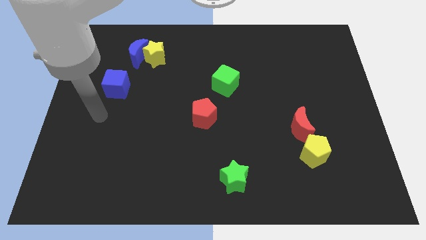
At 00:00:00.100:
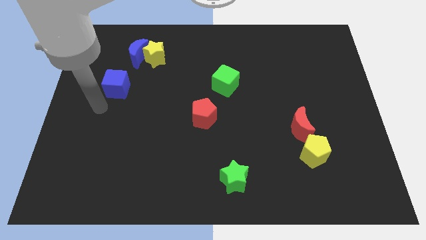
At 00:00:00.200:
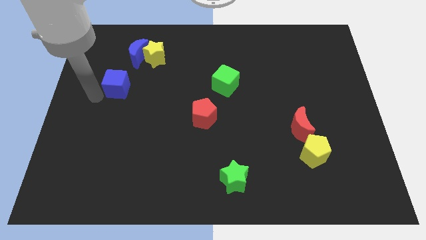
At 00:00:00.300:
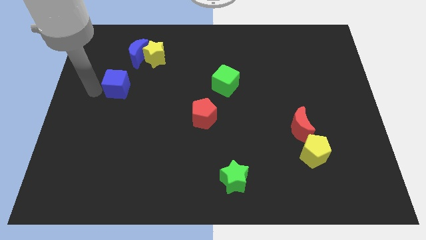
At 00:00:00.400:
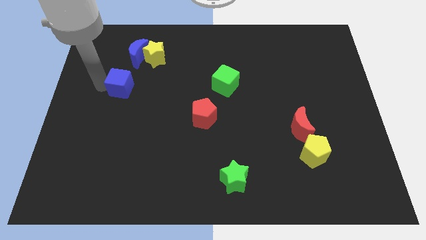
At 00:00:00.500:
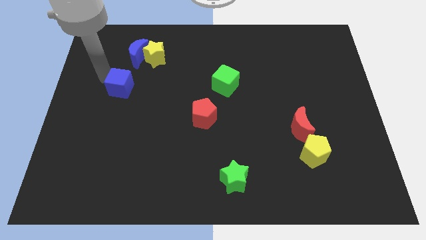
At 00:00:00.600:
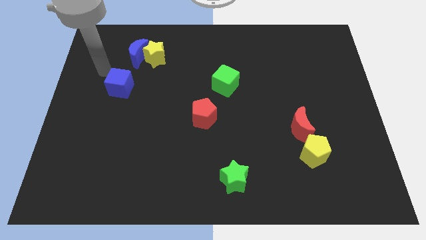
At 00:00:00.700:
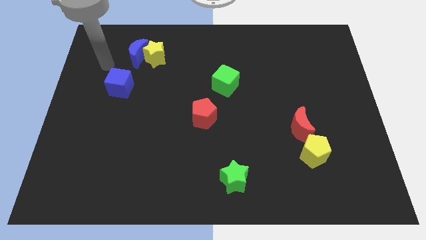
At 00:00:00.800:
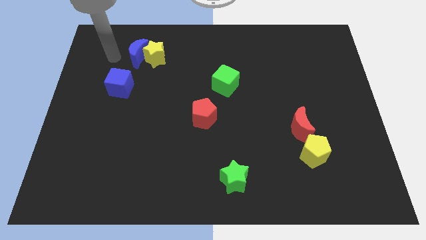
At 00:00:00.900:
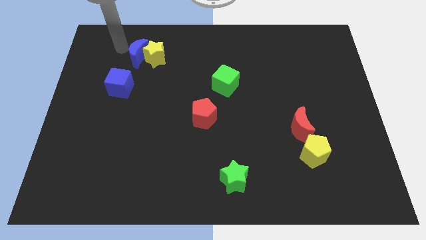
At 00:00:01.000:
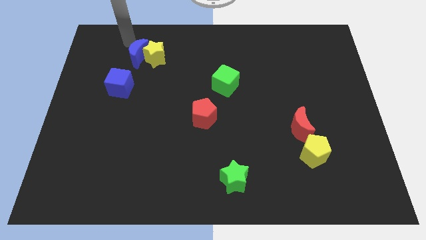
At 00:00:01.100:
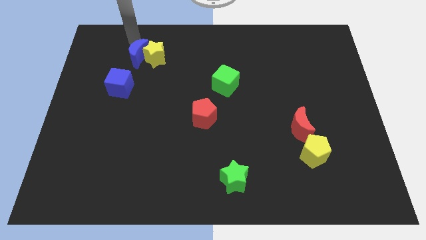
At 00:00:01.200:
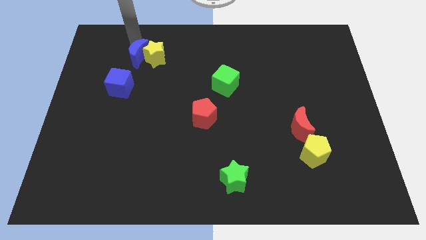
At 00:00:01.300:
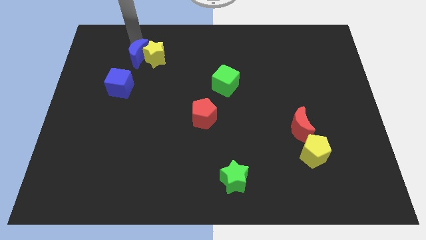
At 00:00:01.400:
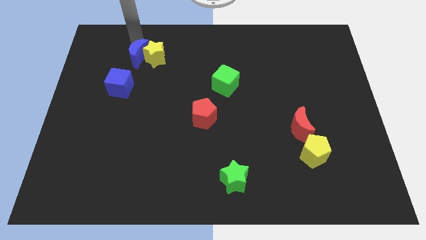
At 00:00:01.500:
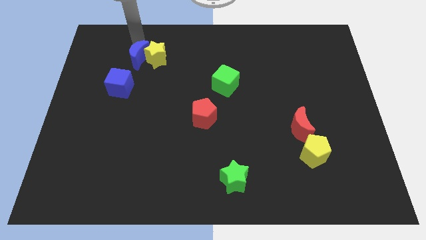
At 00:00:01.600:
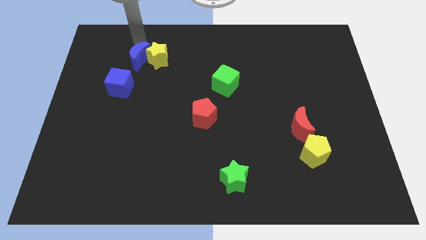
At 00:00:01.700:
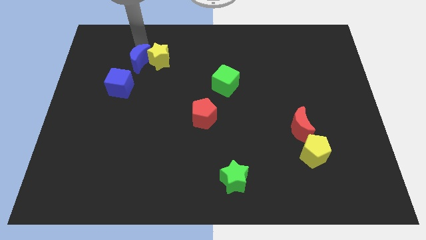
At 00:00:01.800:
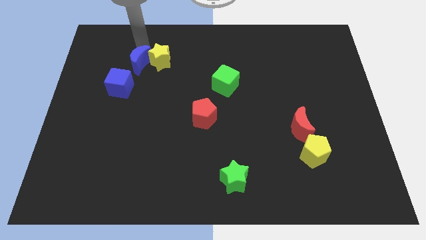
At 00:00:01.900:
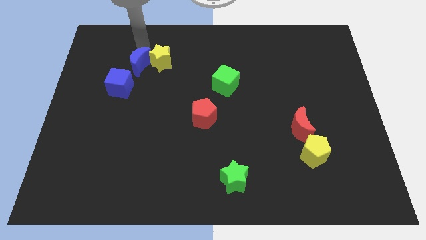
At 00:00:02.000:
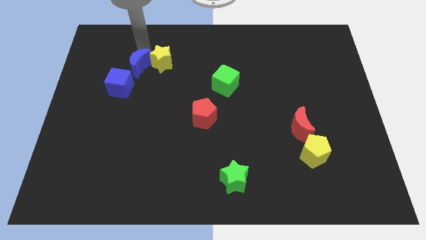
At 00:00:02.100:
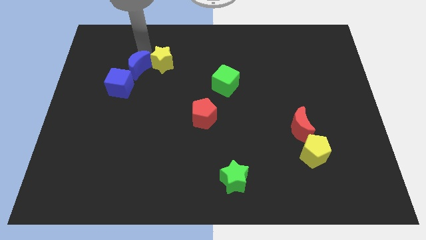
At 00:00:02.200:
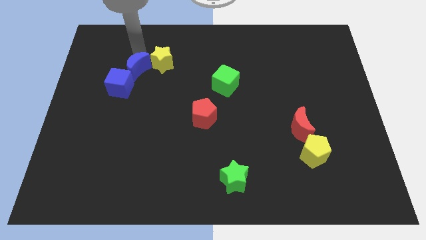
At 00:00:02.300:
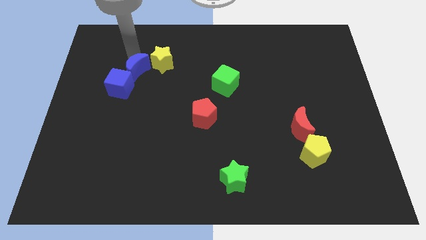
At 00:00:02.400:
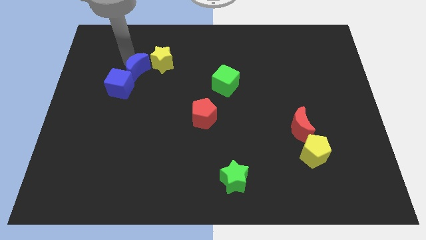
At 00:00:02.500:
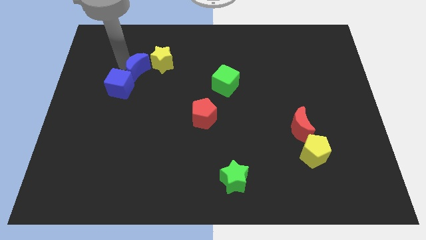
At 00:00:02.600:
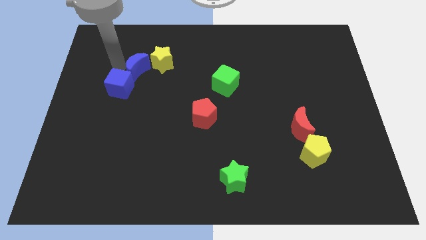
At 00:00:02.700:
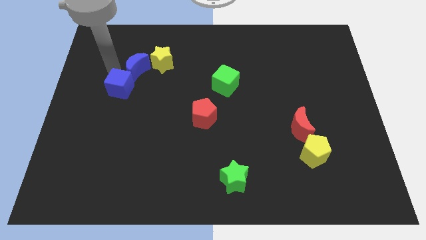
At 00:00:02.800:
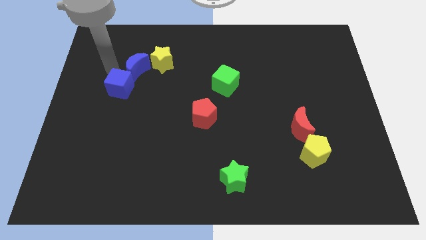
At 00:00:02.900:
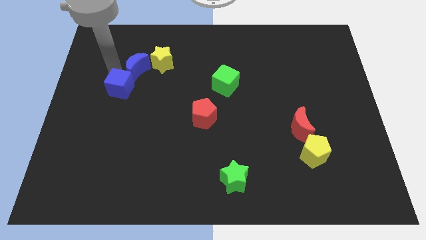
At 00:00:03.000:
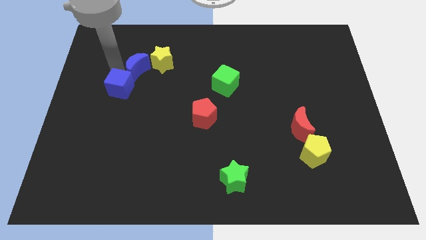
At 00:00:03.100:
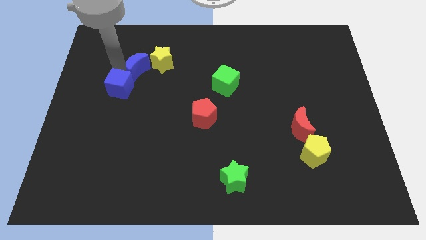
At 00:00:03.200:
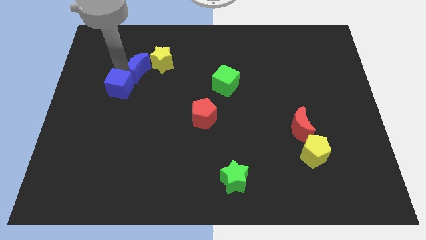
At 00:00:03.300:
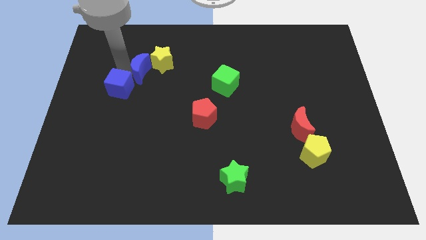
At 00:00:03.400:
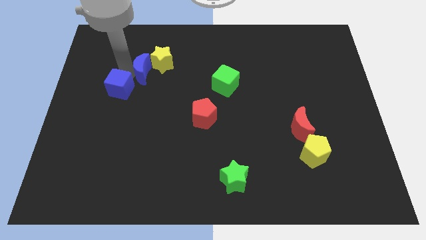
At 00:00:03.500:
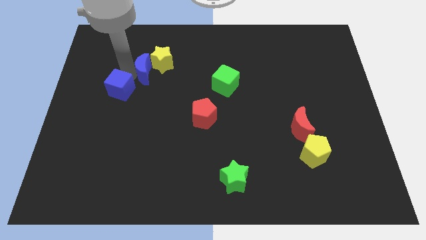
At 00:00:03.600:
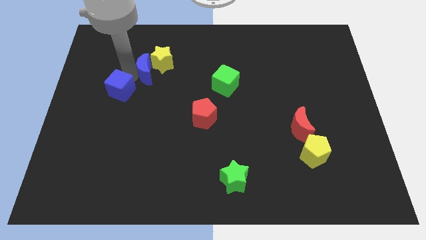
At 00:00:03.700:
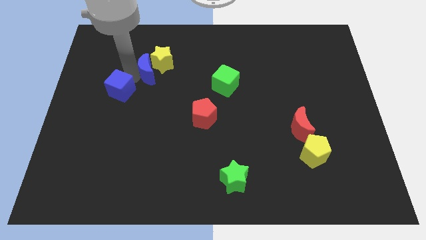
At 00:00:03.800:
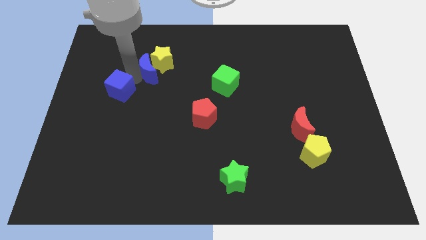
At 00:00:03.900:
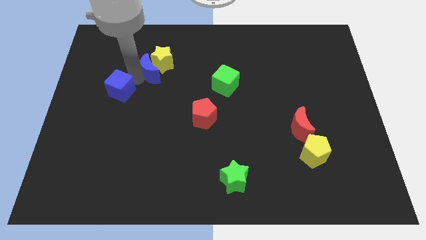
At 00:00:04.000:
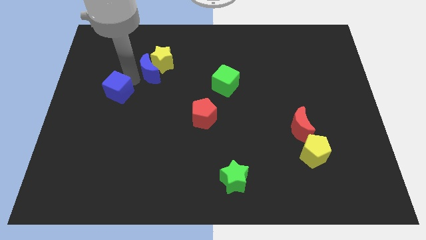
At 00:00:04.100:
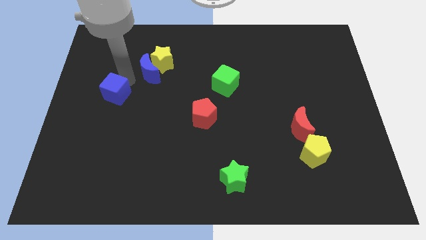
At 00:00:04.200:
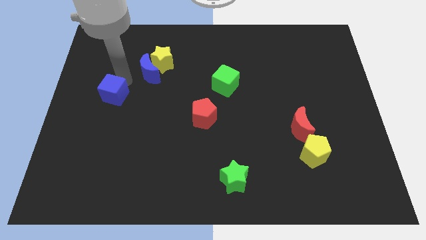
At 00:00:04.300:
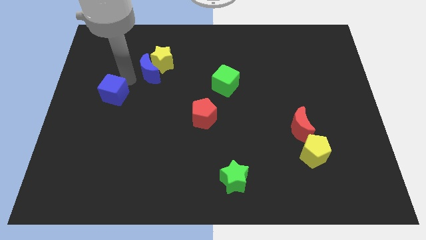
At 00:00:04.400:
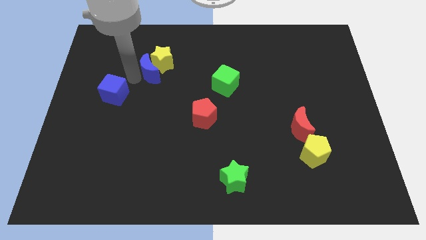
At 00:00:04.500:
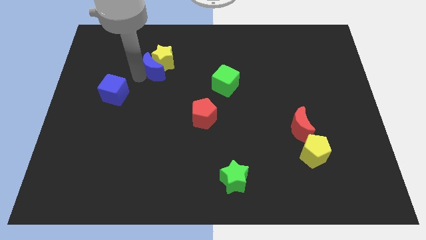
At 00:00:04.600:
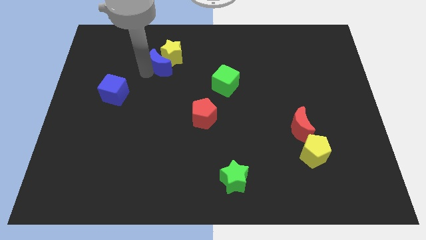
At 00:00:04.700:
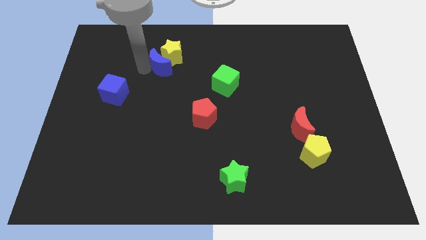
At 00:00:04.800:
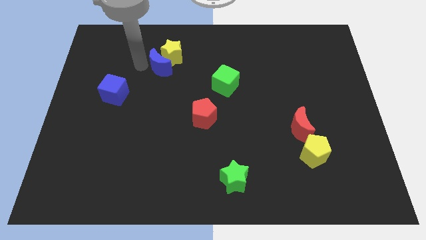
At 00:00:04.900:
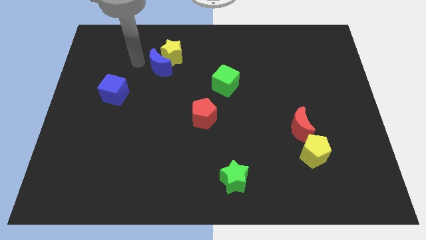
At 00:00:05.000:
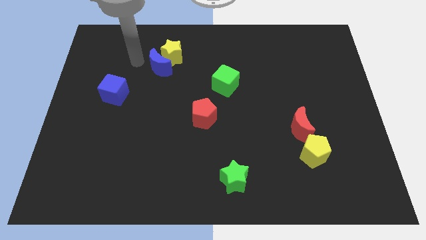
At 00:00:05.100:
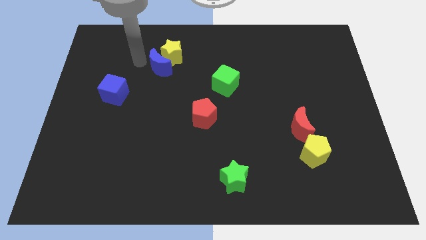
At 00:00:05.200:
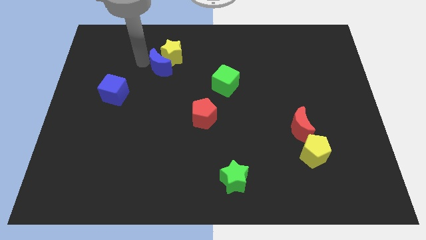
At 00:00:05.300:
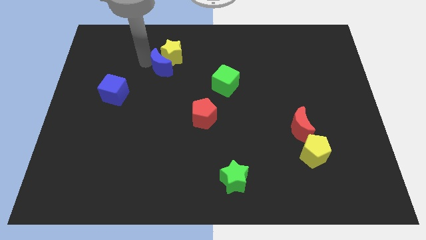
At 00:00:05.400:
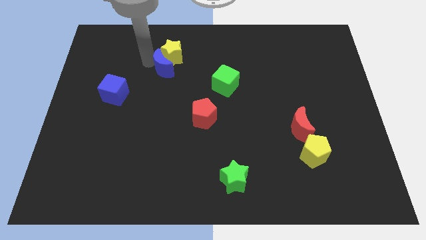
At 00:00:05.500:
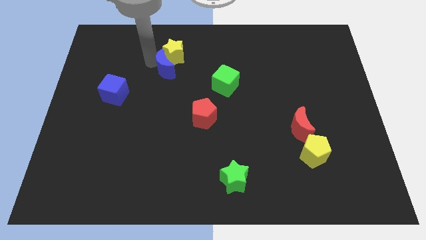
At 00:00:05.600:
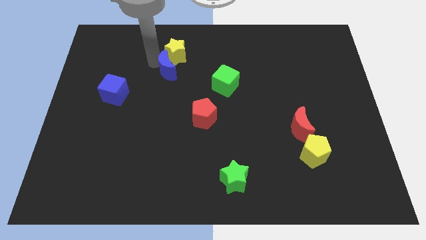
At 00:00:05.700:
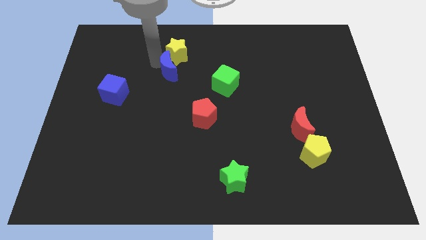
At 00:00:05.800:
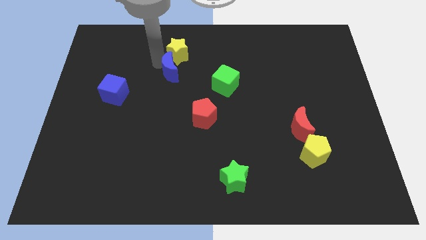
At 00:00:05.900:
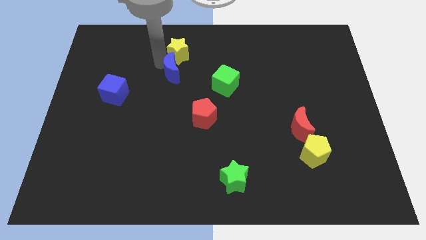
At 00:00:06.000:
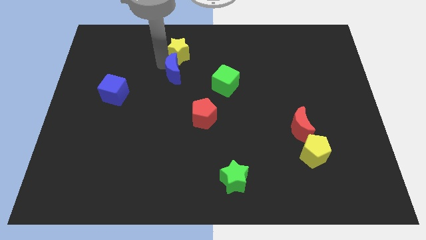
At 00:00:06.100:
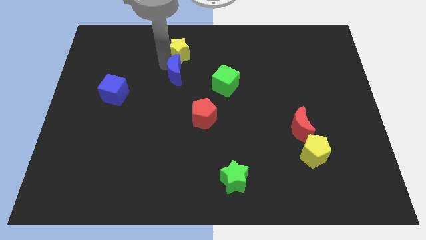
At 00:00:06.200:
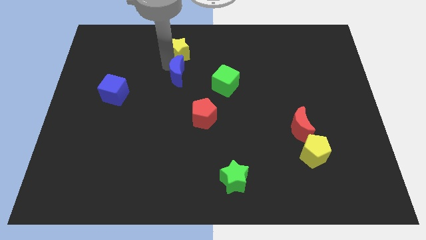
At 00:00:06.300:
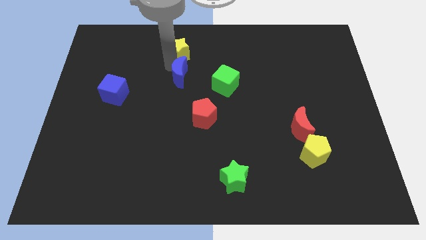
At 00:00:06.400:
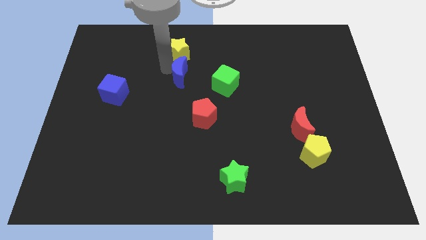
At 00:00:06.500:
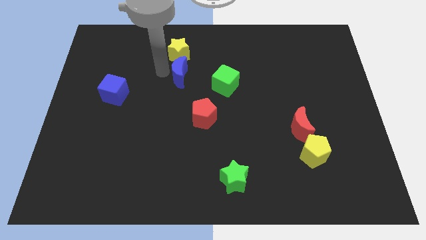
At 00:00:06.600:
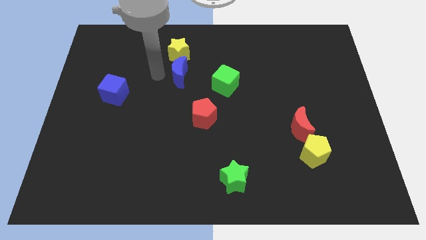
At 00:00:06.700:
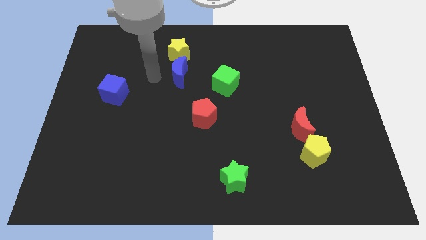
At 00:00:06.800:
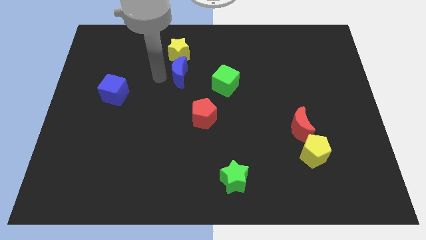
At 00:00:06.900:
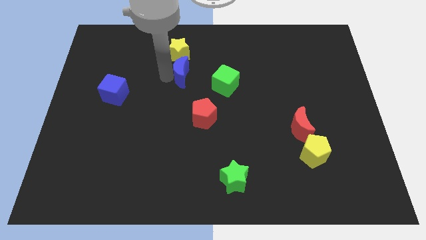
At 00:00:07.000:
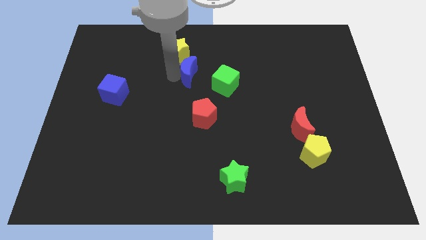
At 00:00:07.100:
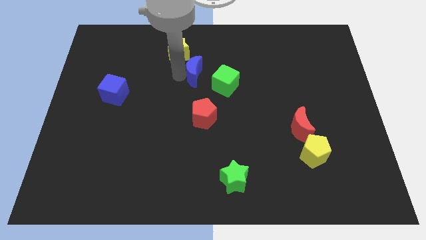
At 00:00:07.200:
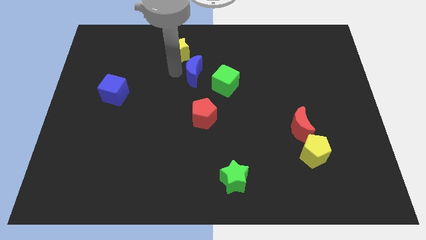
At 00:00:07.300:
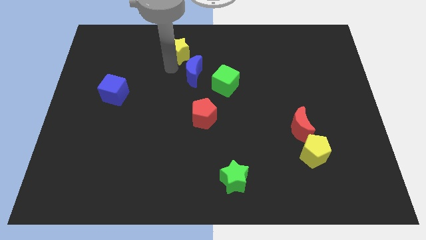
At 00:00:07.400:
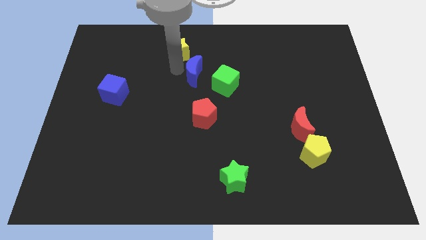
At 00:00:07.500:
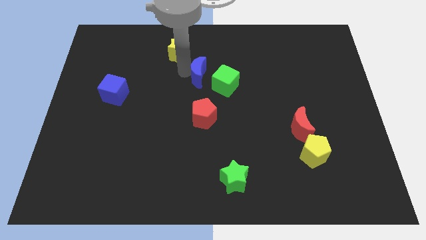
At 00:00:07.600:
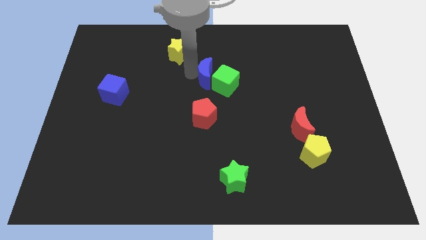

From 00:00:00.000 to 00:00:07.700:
put the blue moon towards the green cube
